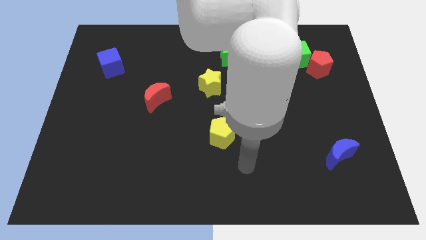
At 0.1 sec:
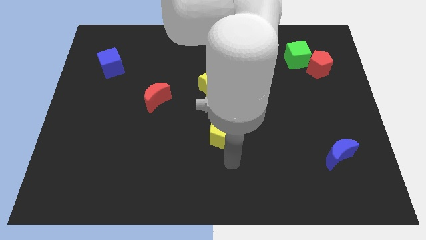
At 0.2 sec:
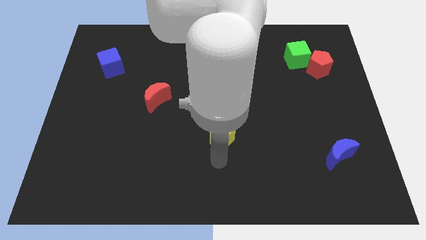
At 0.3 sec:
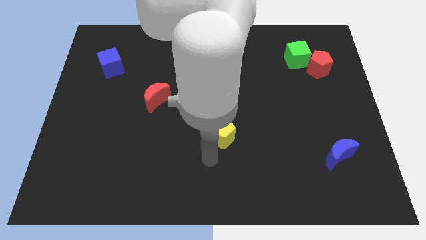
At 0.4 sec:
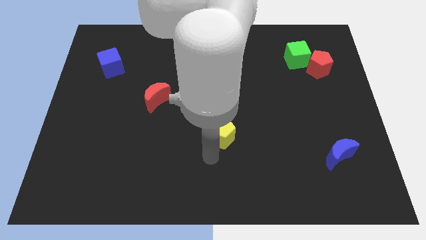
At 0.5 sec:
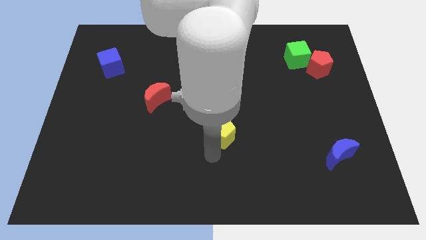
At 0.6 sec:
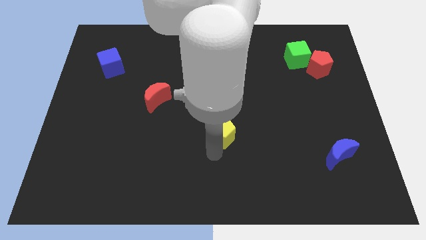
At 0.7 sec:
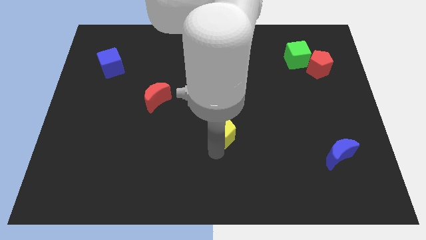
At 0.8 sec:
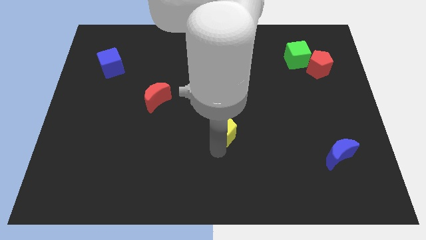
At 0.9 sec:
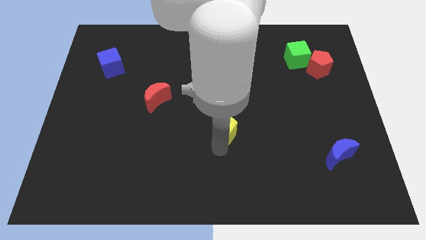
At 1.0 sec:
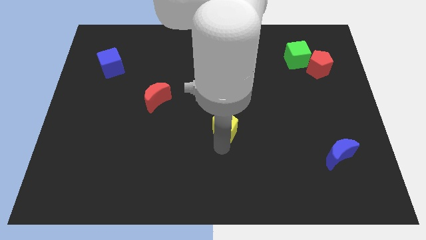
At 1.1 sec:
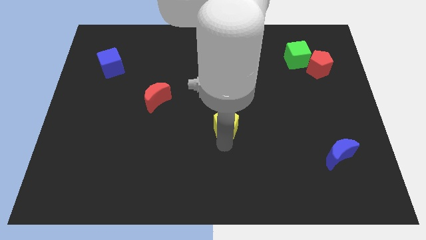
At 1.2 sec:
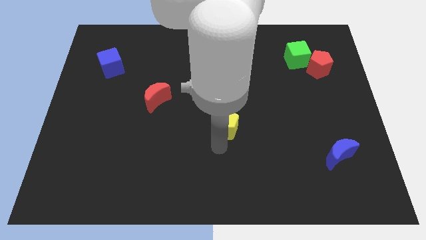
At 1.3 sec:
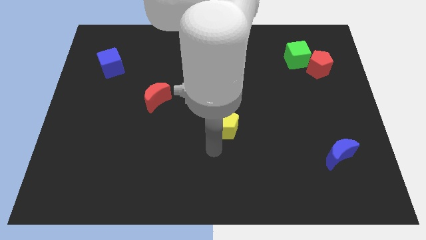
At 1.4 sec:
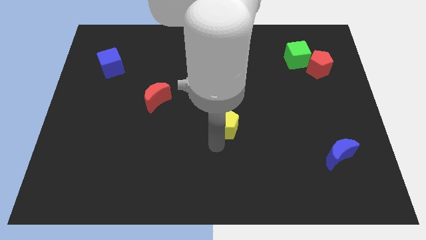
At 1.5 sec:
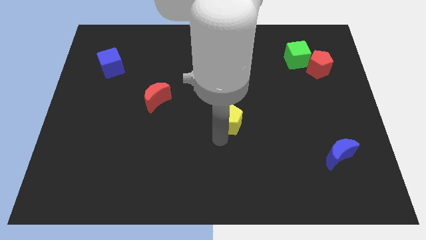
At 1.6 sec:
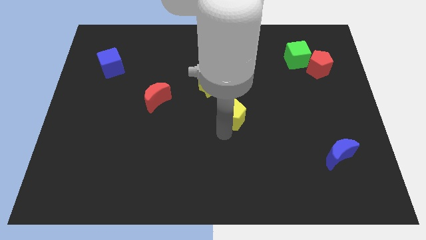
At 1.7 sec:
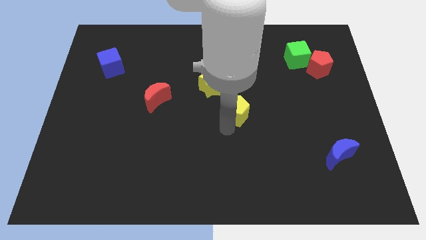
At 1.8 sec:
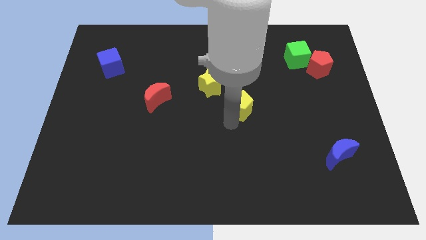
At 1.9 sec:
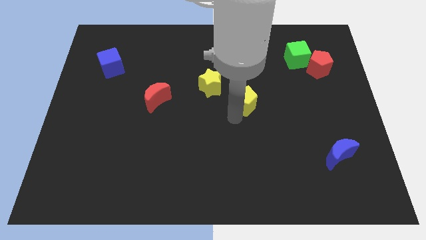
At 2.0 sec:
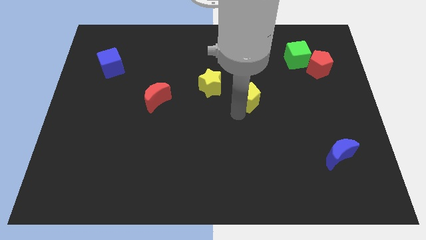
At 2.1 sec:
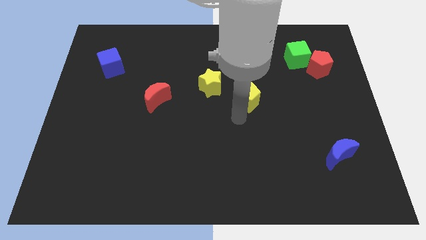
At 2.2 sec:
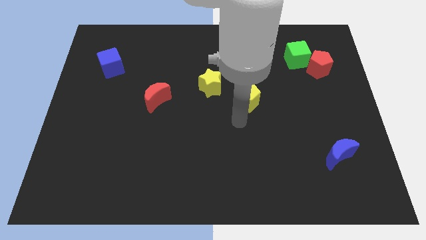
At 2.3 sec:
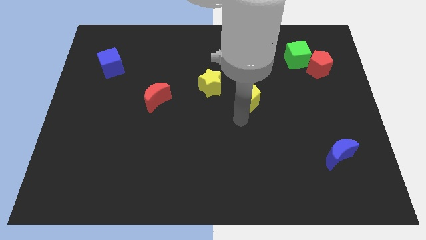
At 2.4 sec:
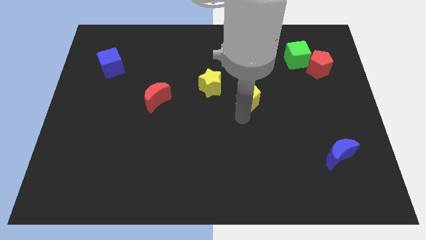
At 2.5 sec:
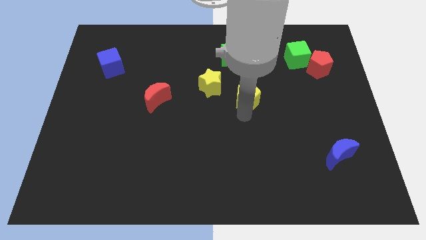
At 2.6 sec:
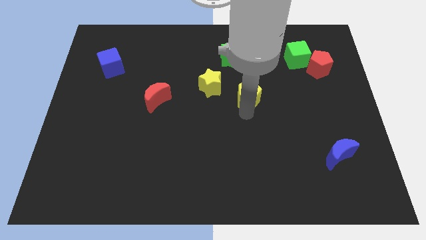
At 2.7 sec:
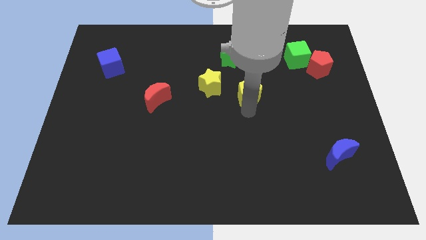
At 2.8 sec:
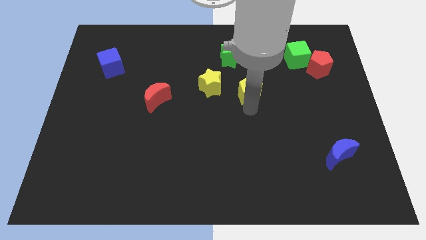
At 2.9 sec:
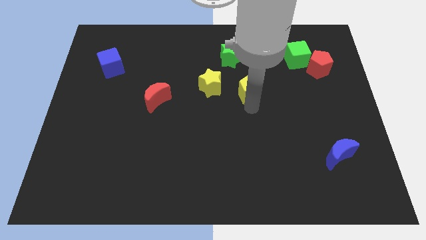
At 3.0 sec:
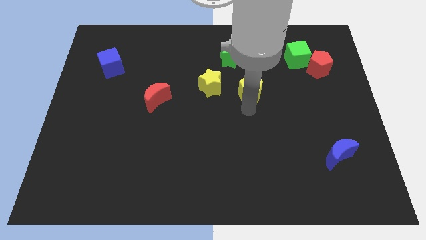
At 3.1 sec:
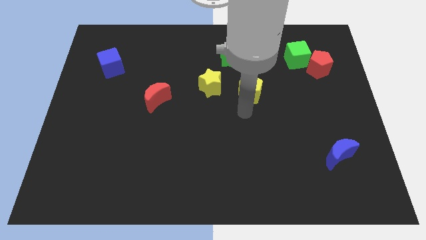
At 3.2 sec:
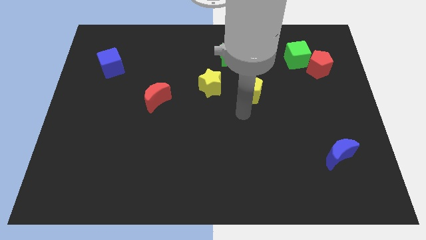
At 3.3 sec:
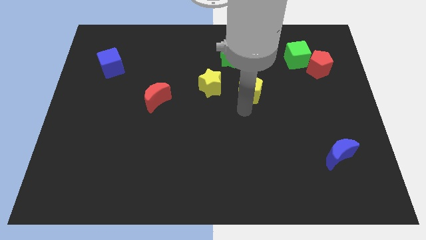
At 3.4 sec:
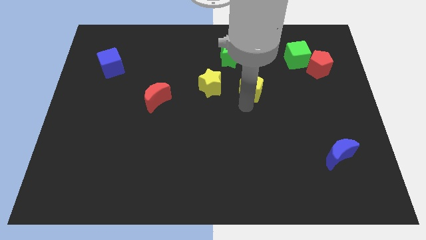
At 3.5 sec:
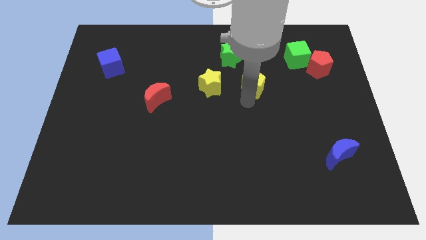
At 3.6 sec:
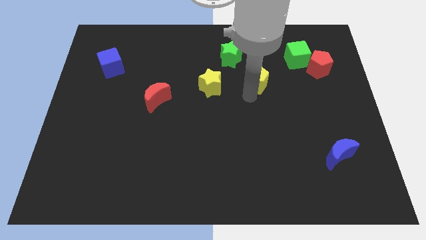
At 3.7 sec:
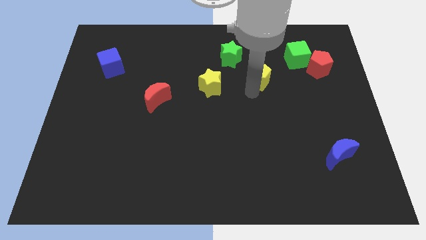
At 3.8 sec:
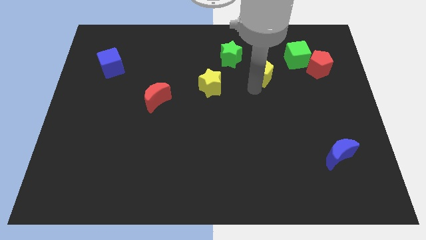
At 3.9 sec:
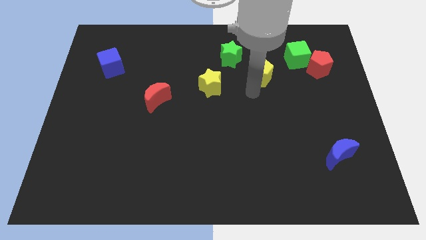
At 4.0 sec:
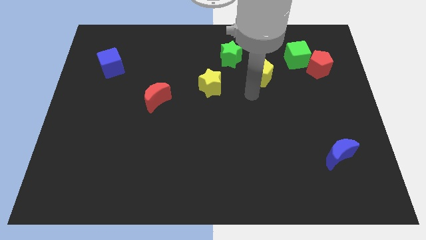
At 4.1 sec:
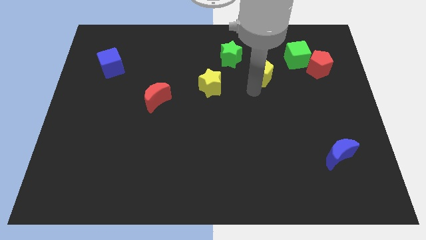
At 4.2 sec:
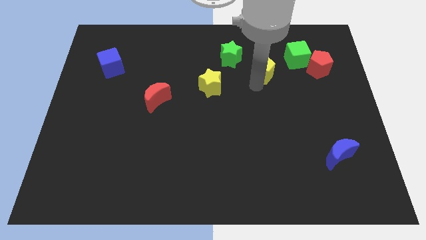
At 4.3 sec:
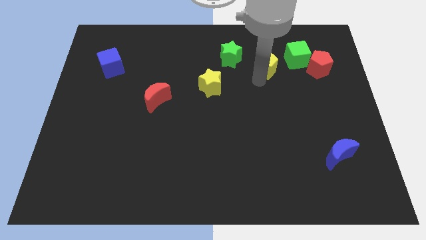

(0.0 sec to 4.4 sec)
move the yellow pentagon just right of the green star

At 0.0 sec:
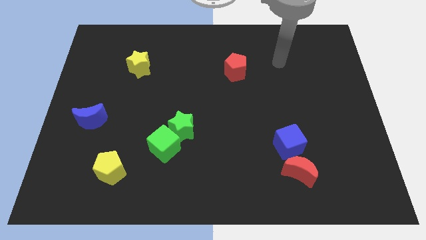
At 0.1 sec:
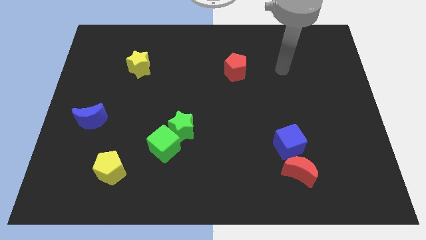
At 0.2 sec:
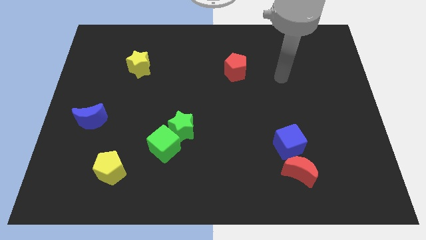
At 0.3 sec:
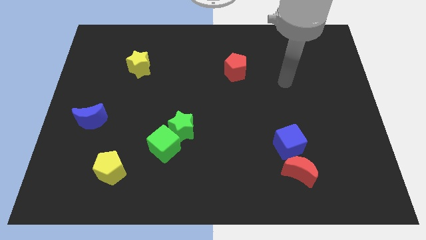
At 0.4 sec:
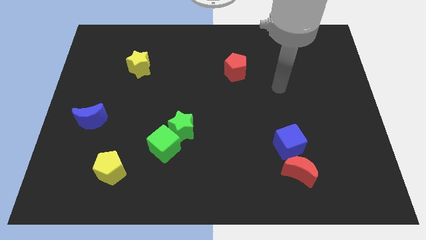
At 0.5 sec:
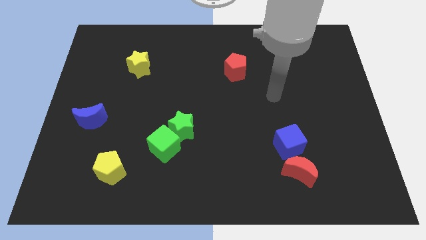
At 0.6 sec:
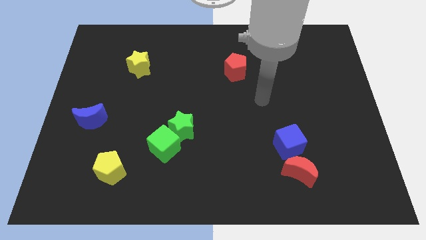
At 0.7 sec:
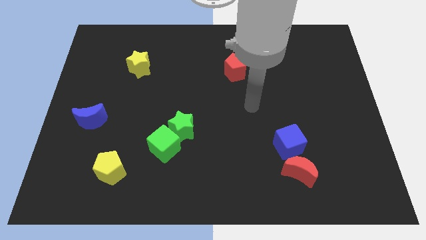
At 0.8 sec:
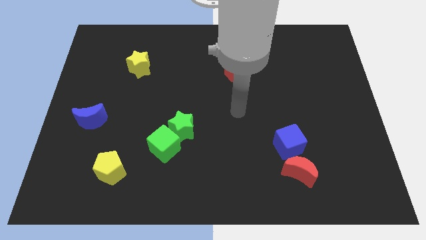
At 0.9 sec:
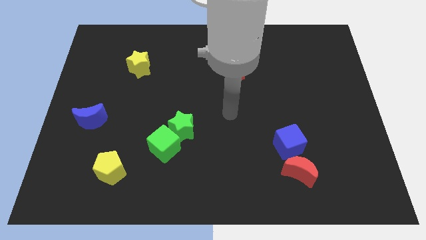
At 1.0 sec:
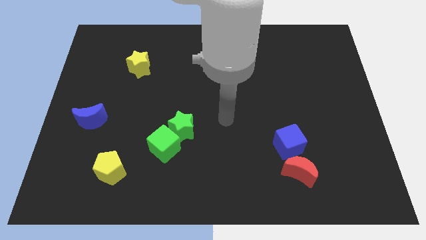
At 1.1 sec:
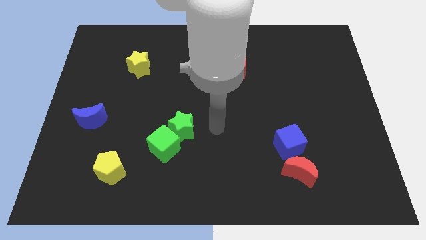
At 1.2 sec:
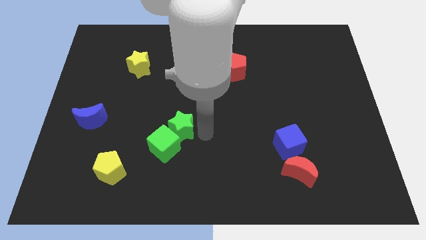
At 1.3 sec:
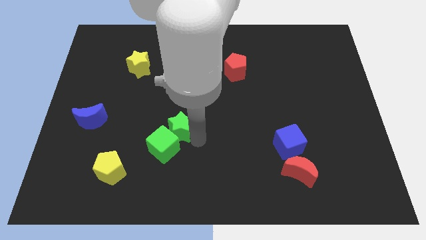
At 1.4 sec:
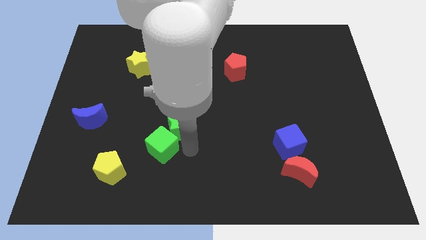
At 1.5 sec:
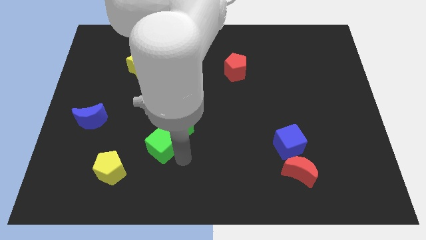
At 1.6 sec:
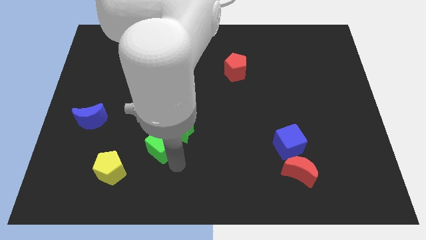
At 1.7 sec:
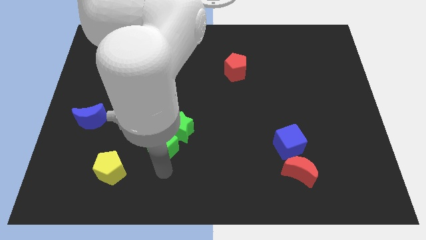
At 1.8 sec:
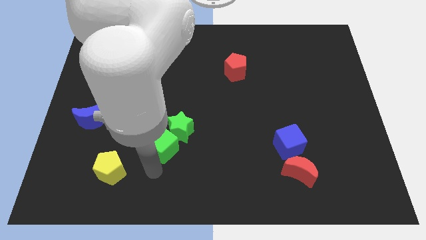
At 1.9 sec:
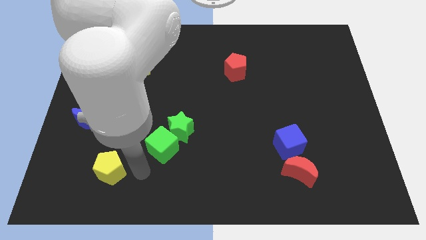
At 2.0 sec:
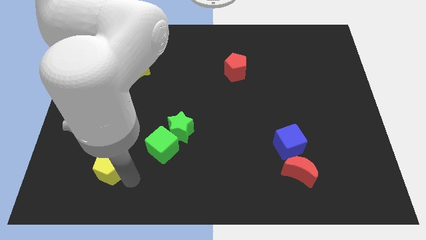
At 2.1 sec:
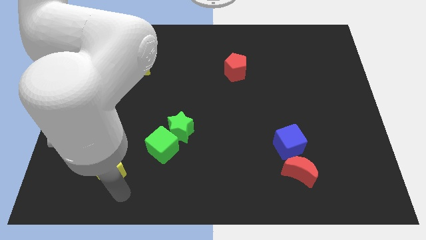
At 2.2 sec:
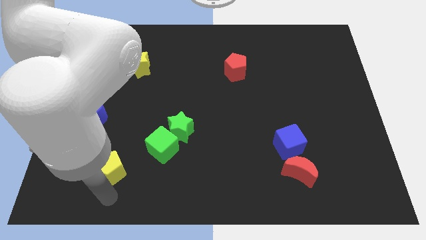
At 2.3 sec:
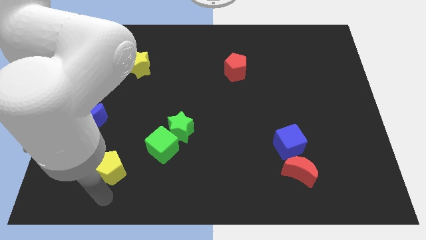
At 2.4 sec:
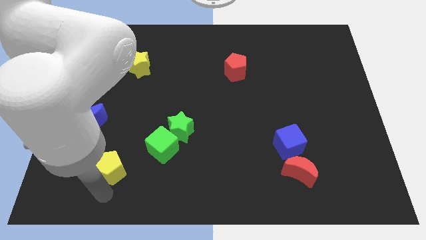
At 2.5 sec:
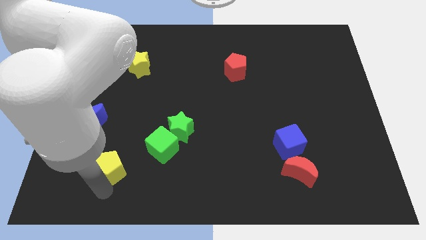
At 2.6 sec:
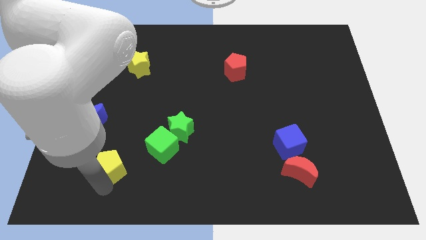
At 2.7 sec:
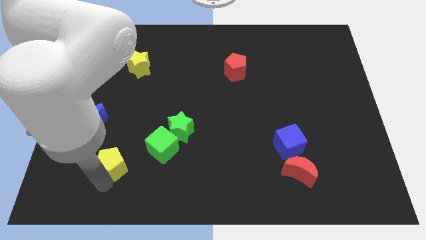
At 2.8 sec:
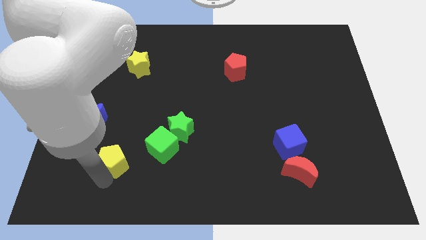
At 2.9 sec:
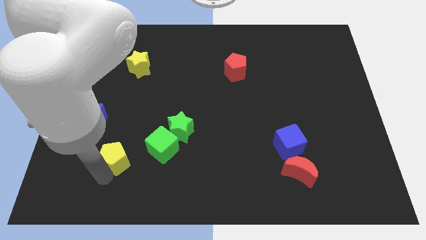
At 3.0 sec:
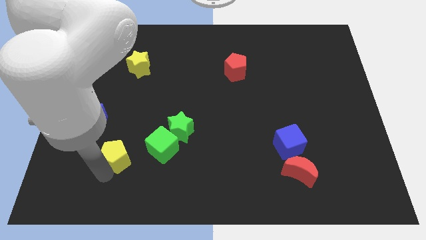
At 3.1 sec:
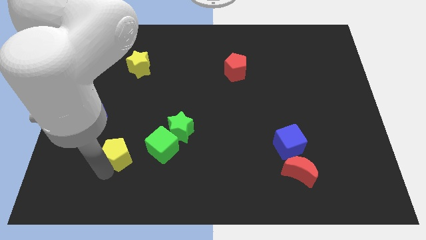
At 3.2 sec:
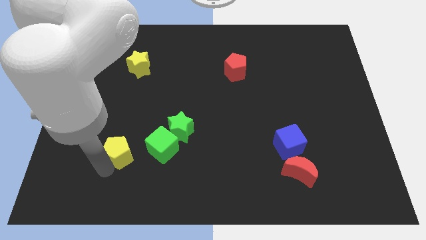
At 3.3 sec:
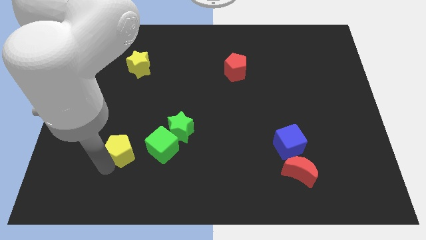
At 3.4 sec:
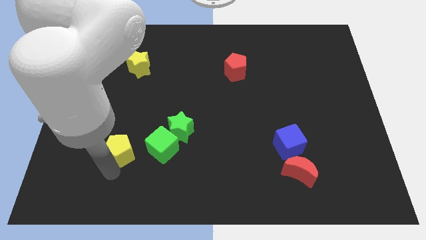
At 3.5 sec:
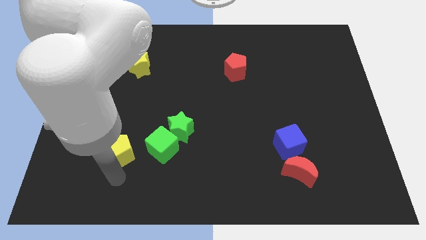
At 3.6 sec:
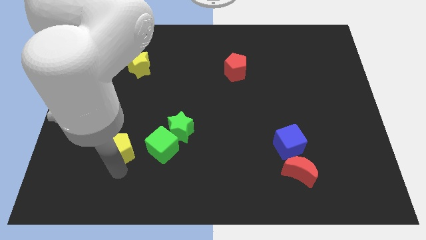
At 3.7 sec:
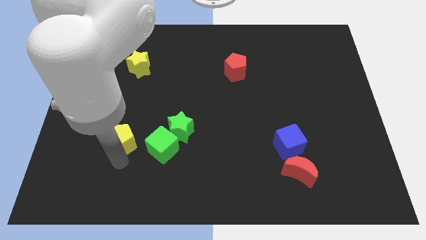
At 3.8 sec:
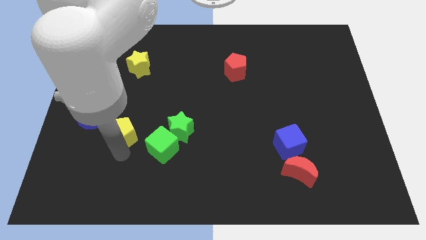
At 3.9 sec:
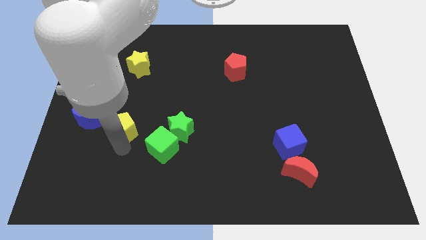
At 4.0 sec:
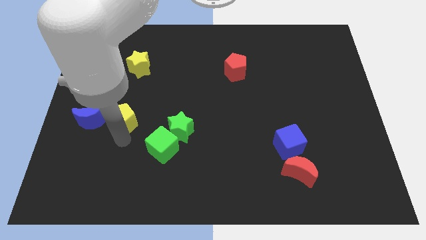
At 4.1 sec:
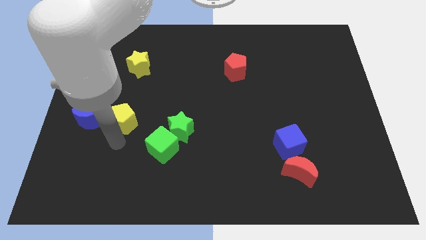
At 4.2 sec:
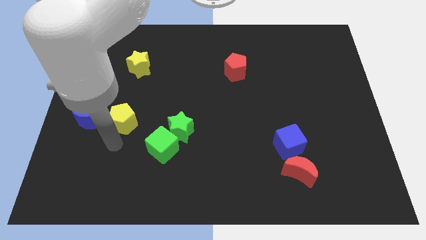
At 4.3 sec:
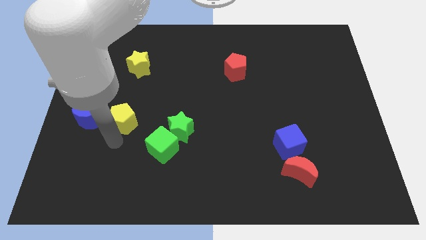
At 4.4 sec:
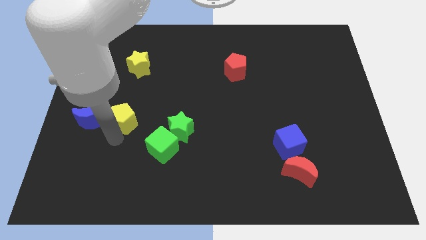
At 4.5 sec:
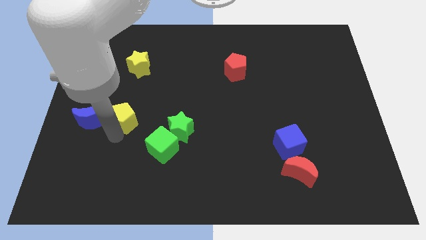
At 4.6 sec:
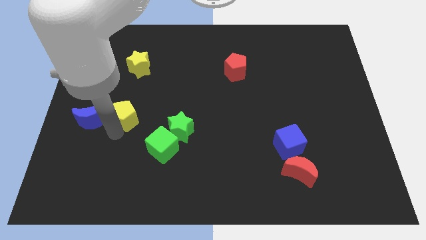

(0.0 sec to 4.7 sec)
move the yellow pentagon to the bottom of the yellow star
